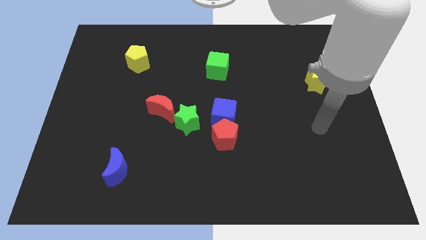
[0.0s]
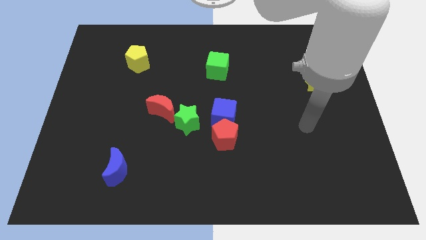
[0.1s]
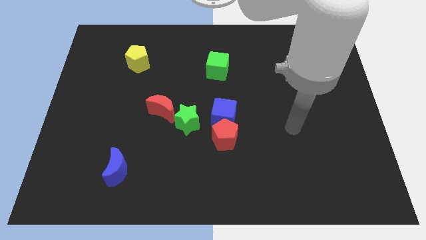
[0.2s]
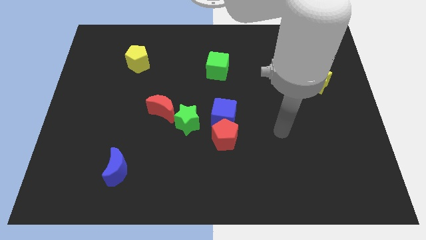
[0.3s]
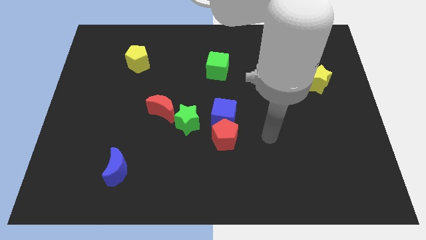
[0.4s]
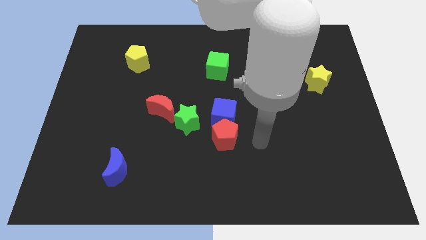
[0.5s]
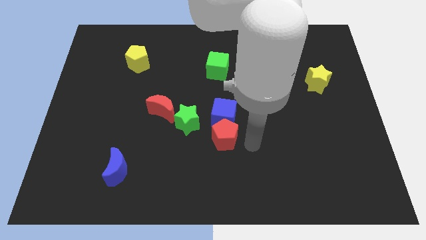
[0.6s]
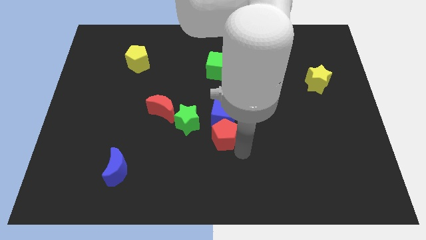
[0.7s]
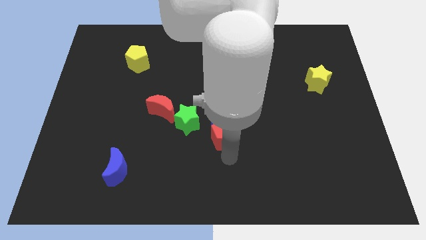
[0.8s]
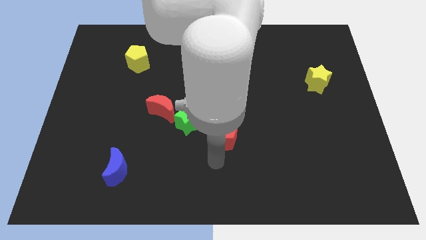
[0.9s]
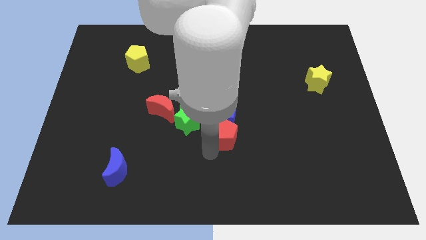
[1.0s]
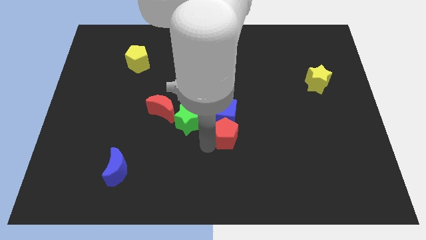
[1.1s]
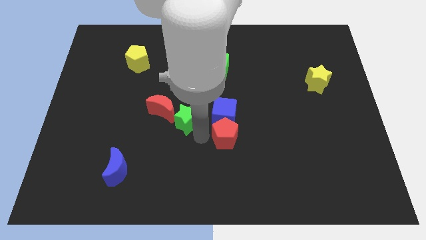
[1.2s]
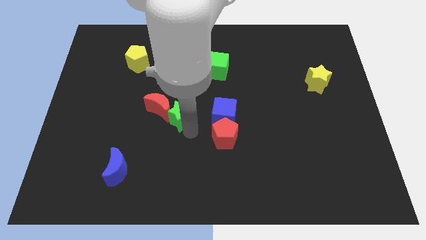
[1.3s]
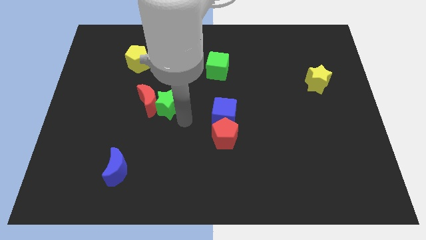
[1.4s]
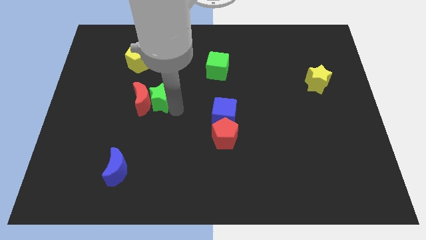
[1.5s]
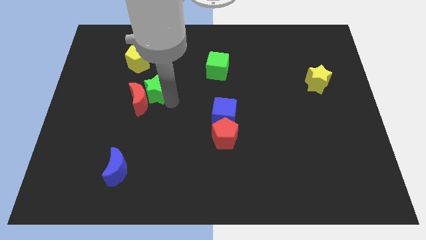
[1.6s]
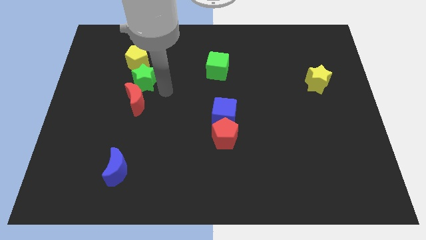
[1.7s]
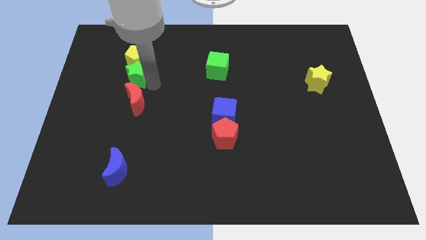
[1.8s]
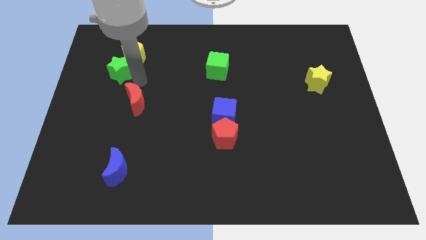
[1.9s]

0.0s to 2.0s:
pull the red moon apart from the green star

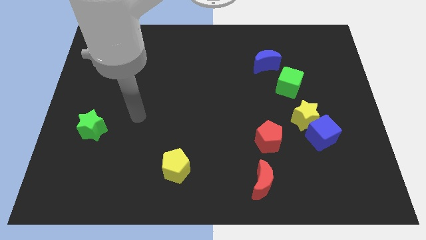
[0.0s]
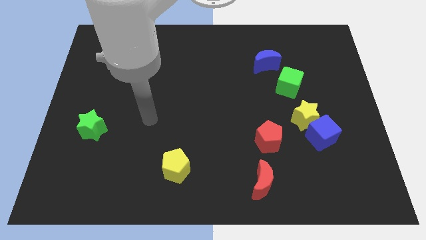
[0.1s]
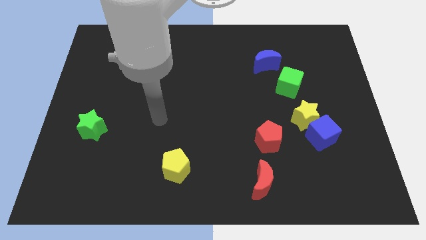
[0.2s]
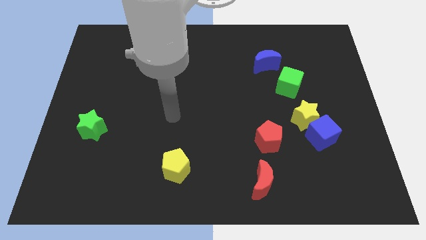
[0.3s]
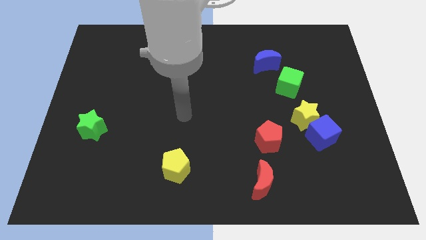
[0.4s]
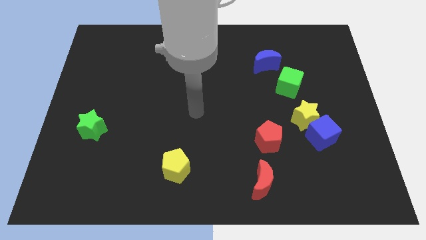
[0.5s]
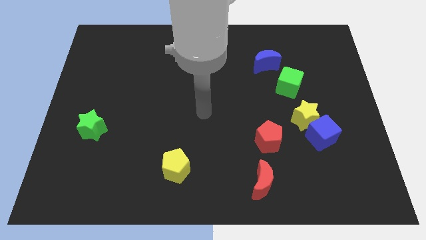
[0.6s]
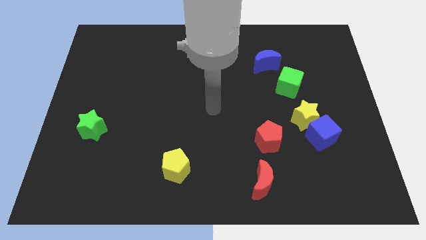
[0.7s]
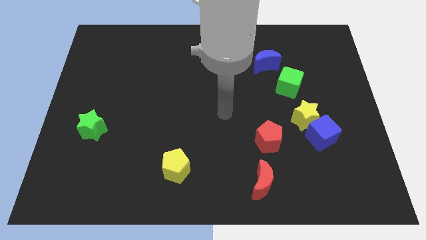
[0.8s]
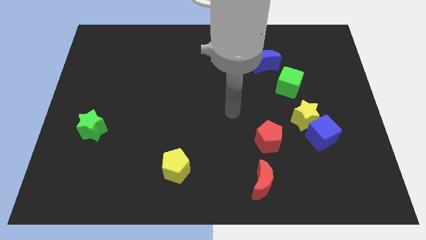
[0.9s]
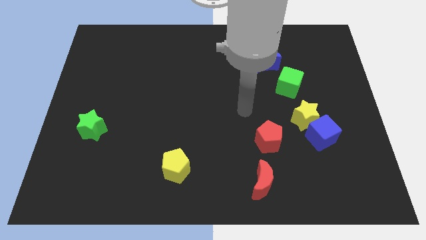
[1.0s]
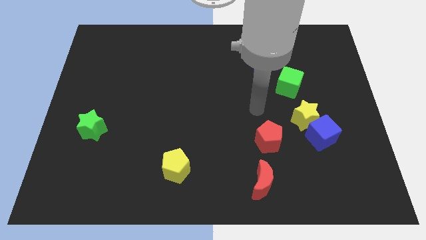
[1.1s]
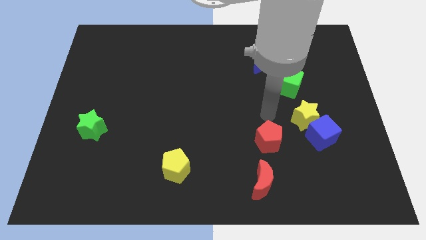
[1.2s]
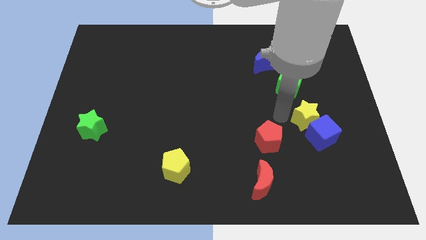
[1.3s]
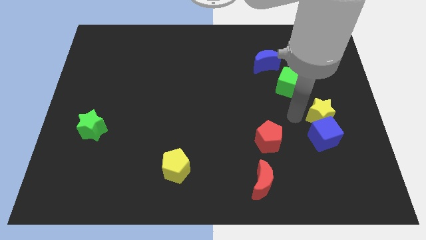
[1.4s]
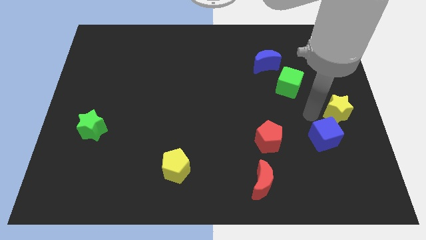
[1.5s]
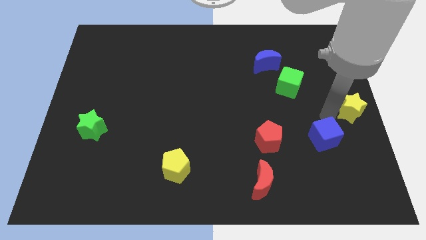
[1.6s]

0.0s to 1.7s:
separate the blue cube from the yellow star

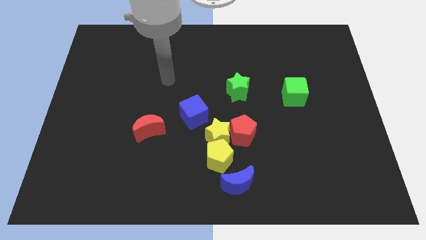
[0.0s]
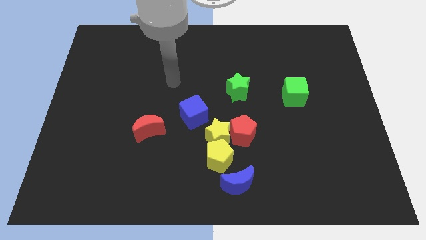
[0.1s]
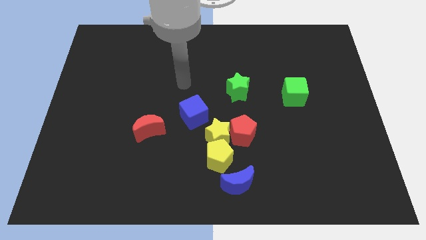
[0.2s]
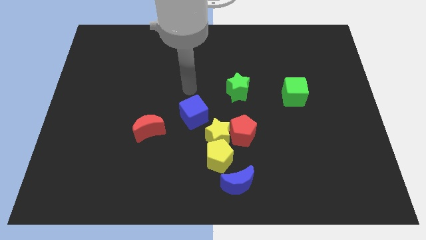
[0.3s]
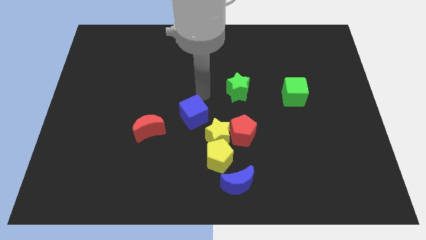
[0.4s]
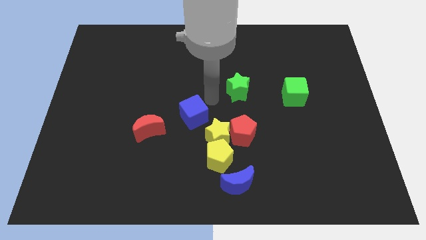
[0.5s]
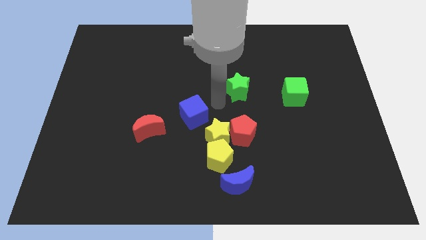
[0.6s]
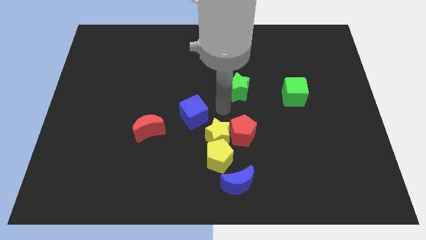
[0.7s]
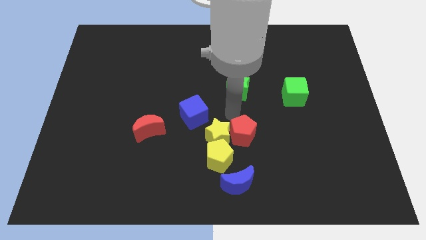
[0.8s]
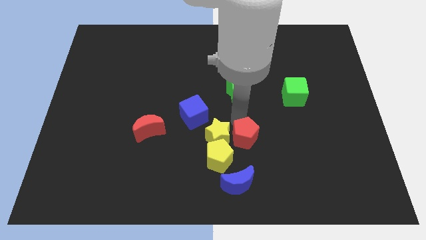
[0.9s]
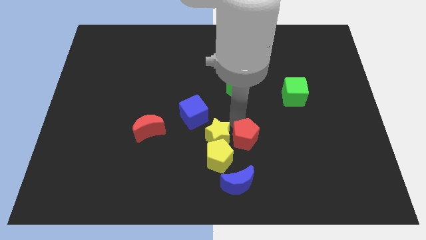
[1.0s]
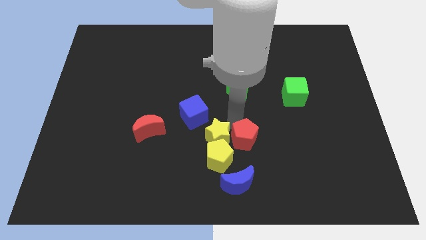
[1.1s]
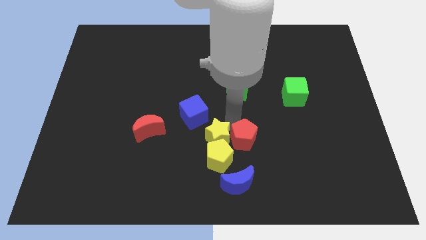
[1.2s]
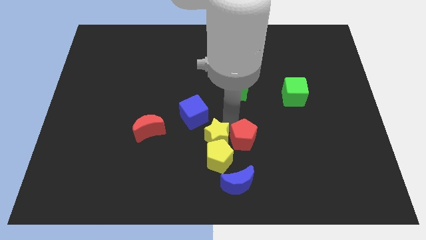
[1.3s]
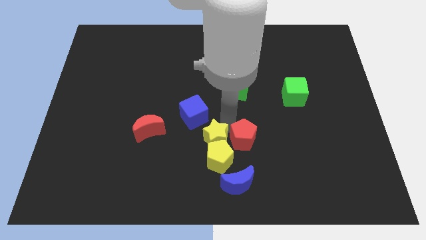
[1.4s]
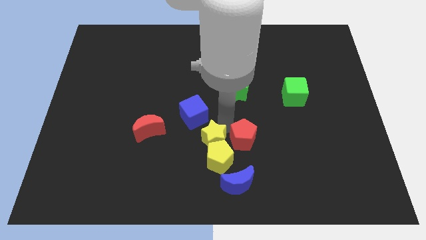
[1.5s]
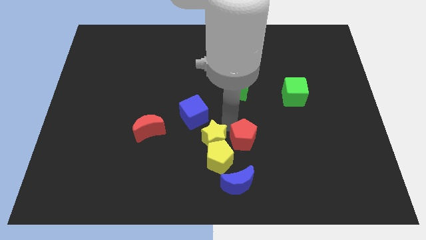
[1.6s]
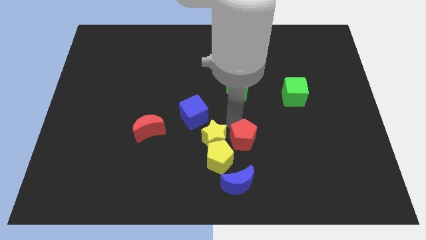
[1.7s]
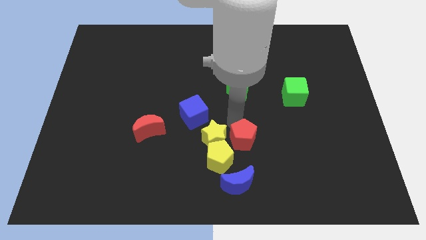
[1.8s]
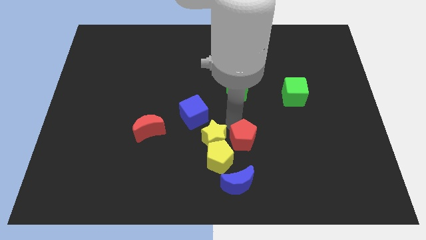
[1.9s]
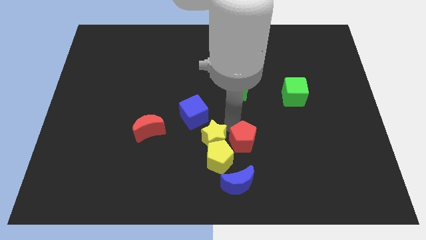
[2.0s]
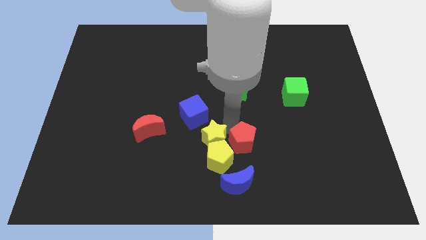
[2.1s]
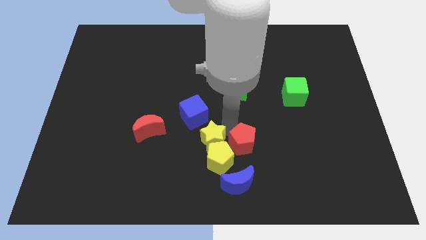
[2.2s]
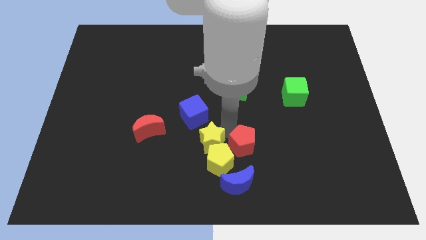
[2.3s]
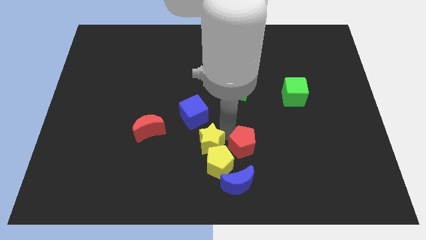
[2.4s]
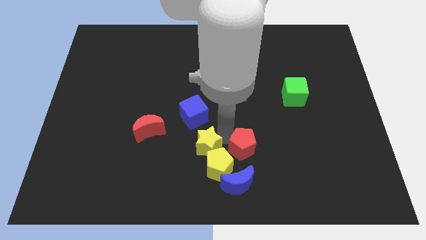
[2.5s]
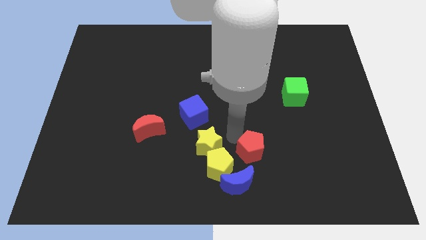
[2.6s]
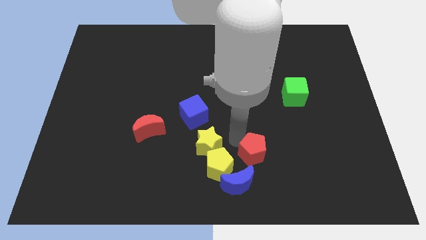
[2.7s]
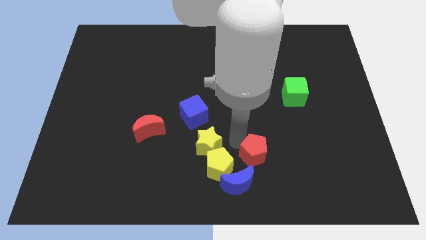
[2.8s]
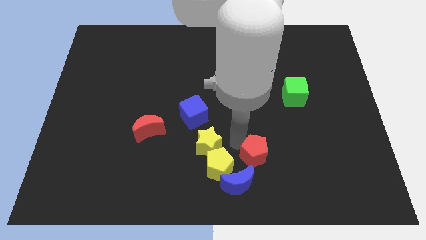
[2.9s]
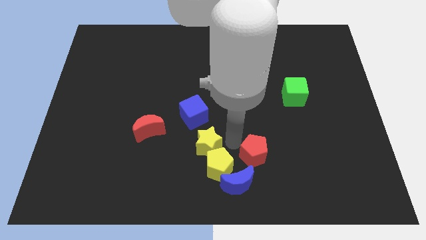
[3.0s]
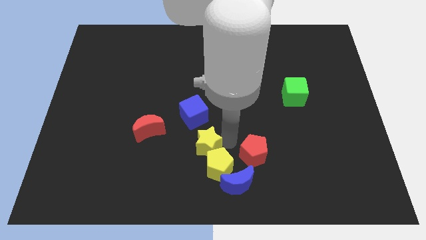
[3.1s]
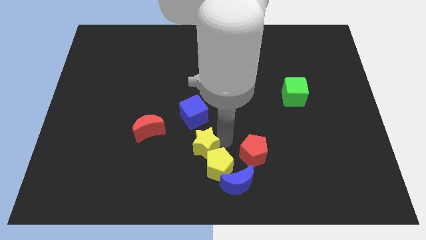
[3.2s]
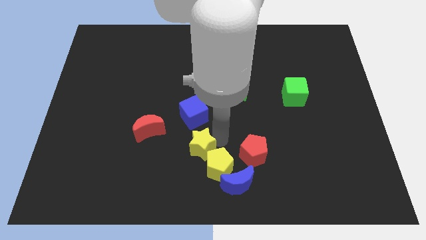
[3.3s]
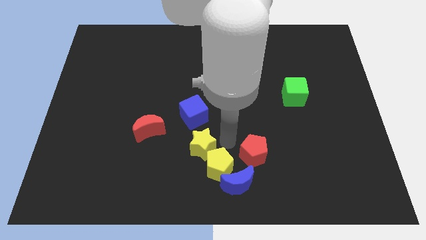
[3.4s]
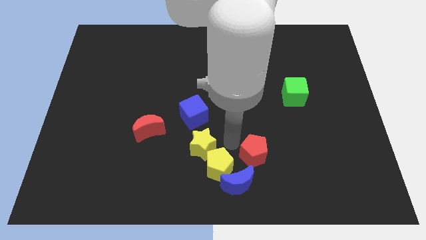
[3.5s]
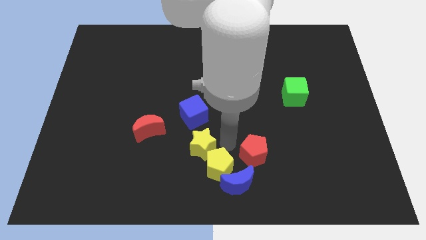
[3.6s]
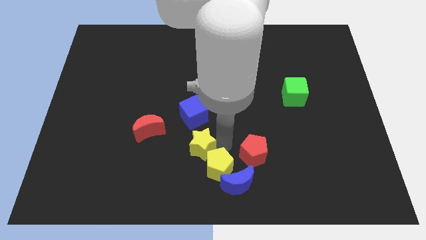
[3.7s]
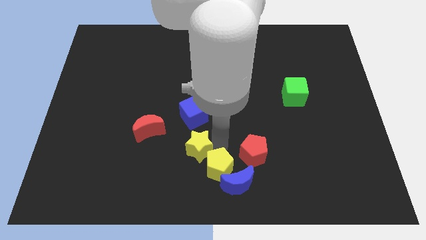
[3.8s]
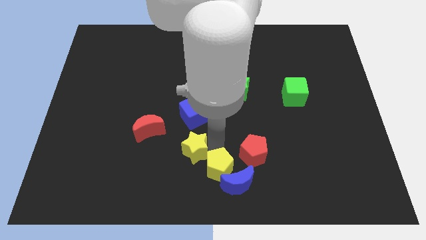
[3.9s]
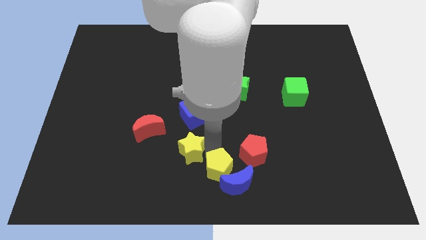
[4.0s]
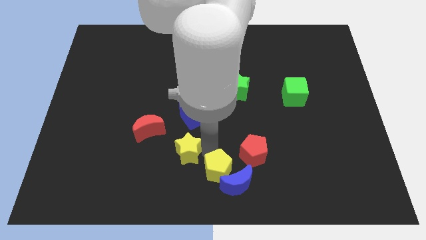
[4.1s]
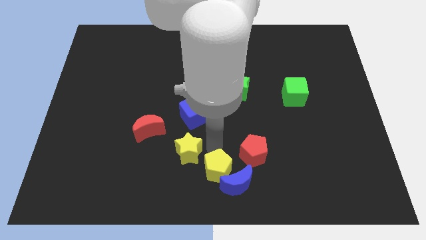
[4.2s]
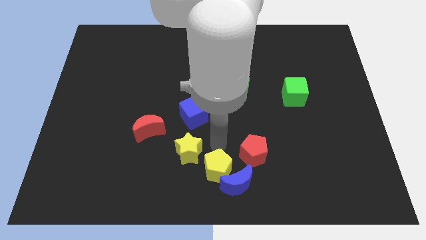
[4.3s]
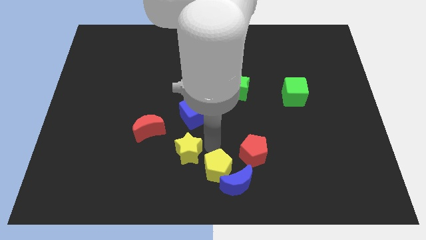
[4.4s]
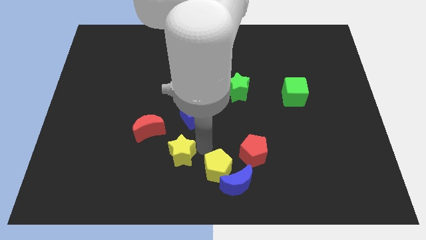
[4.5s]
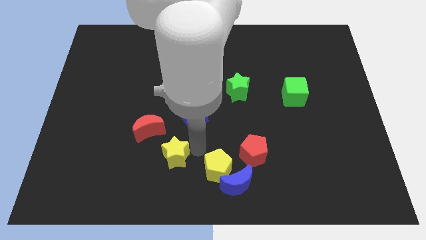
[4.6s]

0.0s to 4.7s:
pull the yellow star apart from the yellow pentagon, red pentagon, and blue cube

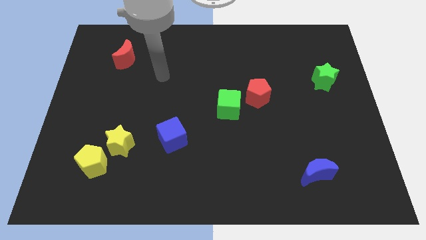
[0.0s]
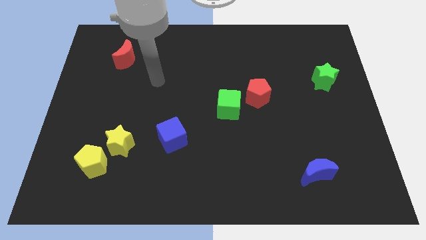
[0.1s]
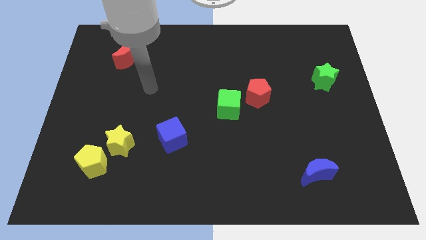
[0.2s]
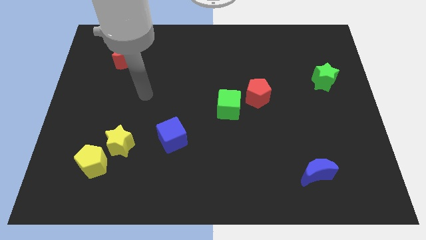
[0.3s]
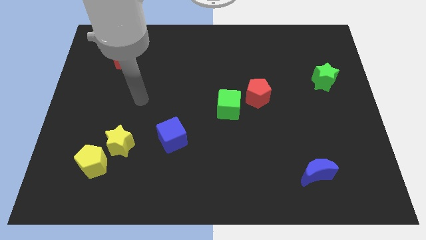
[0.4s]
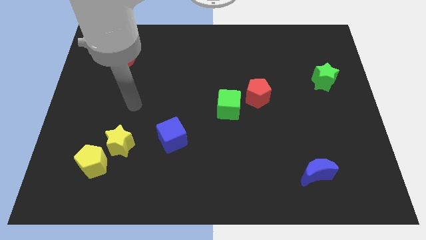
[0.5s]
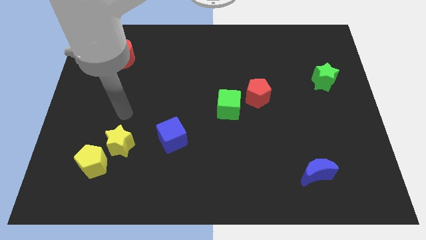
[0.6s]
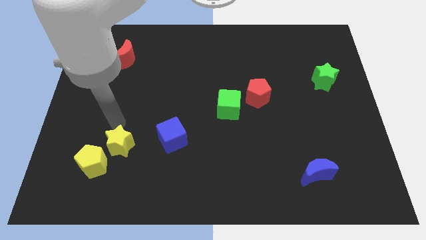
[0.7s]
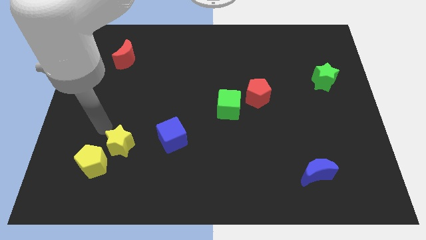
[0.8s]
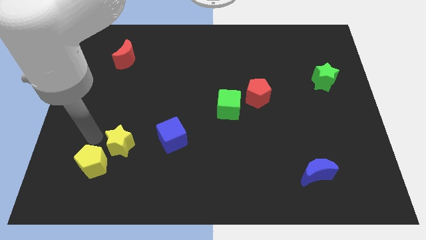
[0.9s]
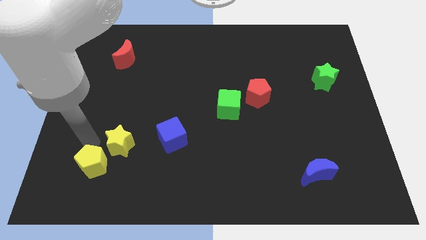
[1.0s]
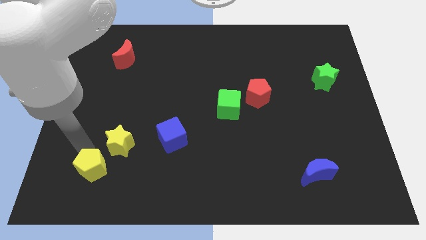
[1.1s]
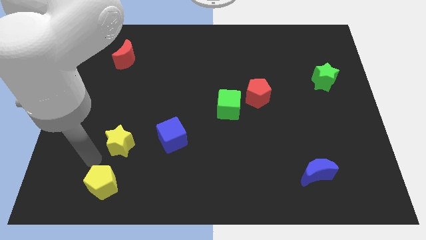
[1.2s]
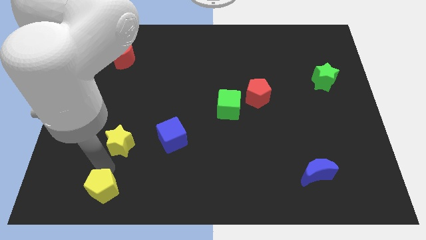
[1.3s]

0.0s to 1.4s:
move the yellow star away from the yellow pentagon
